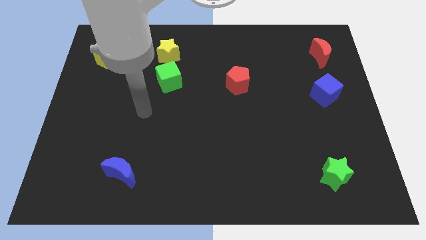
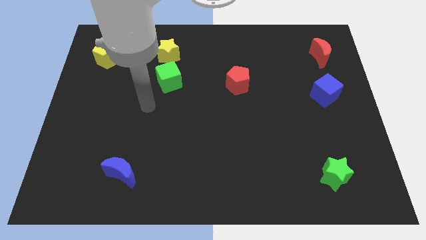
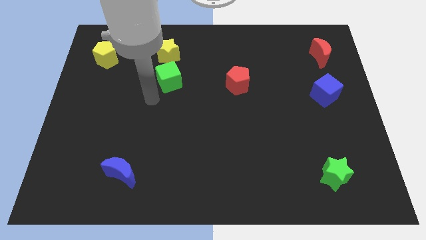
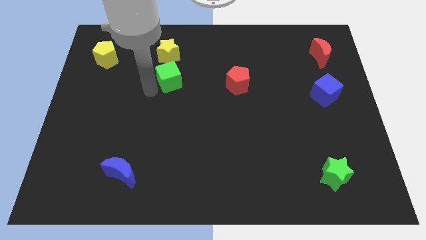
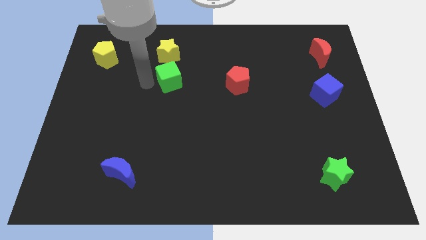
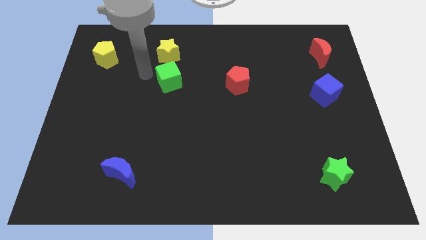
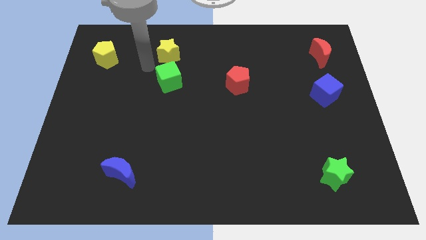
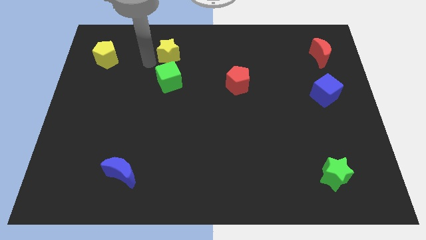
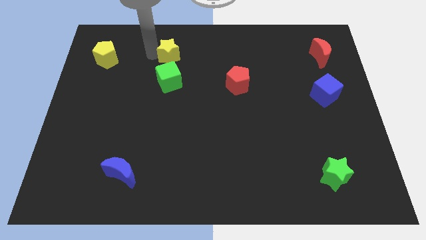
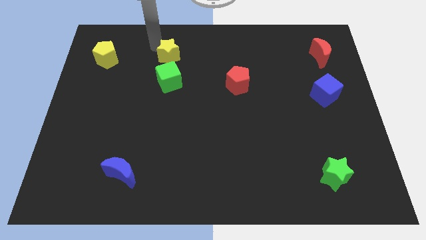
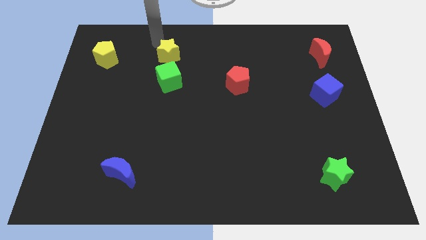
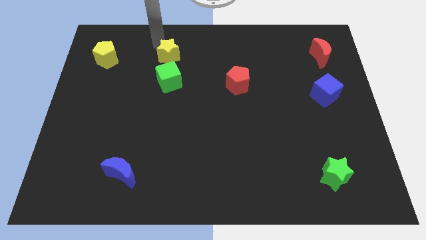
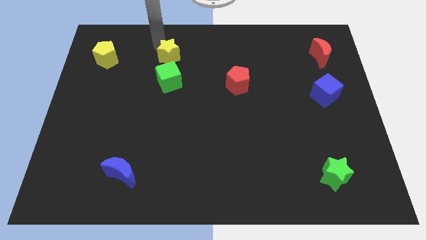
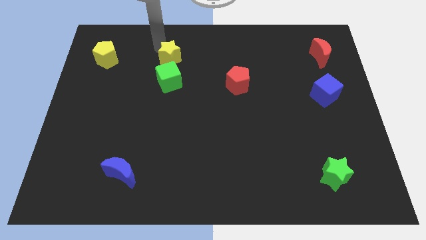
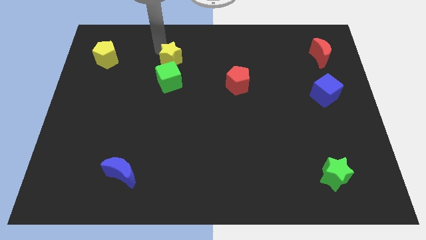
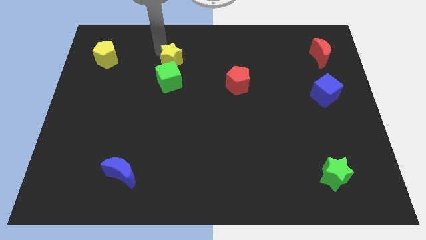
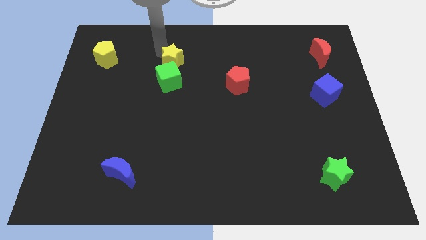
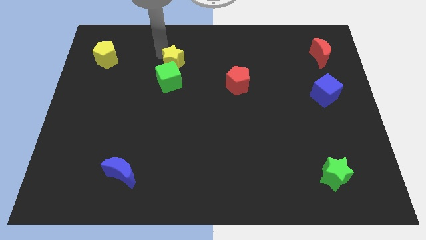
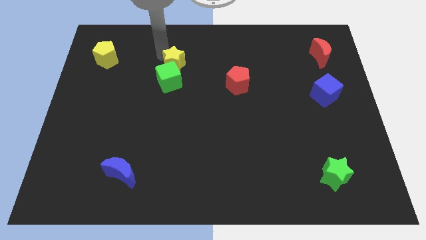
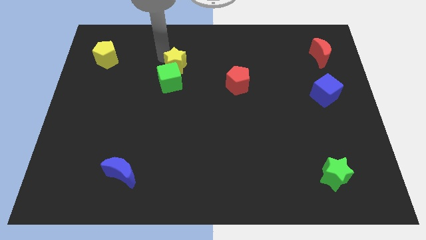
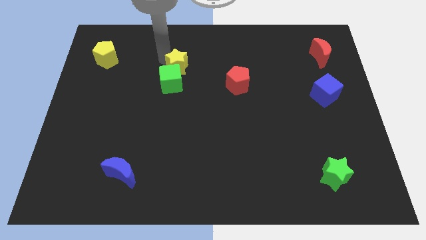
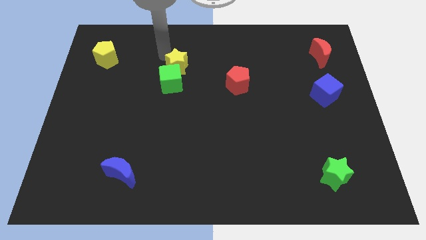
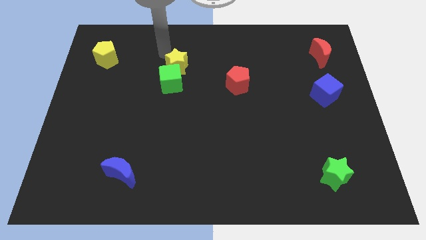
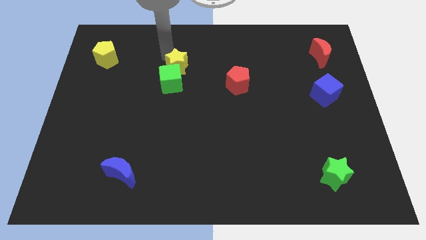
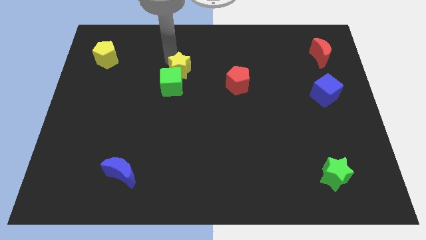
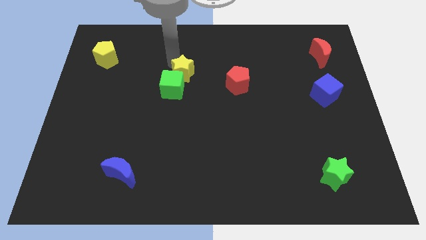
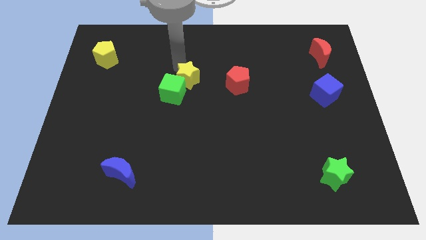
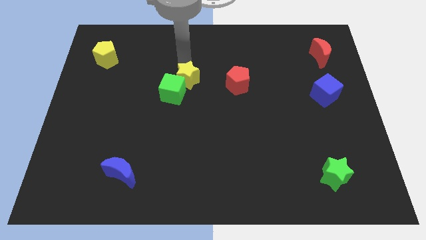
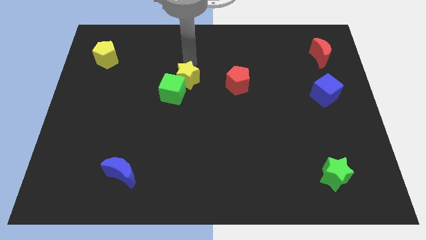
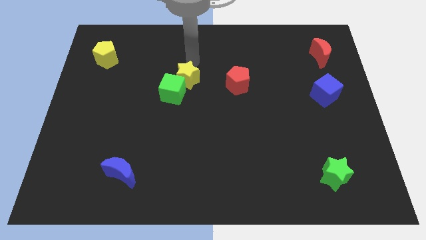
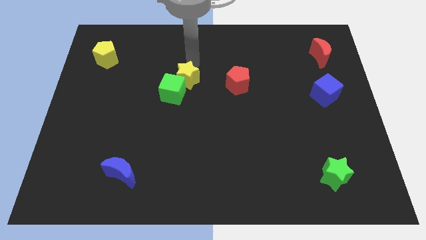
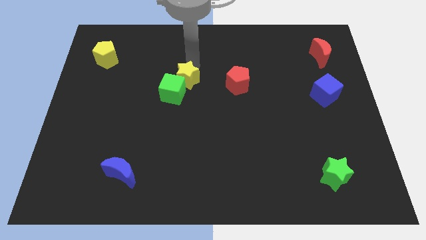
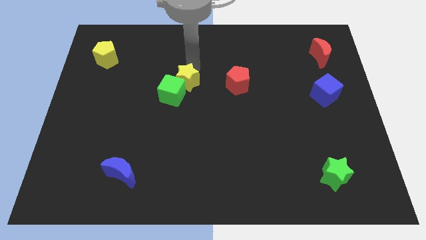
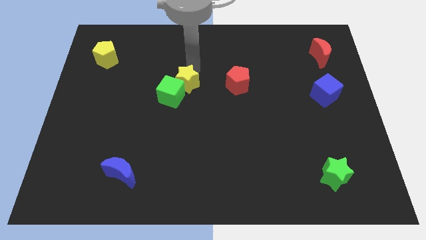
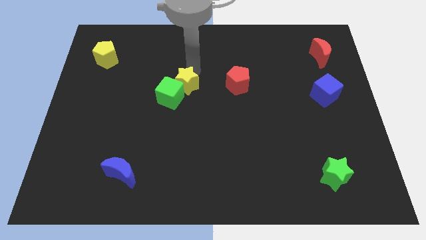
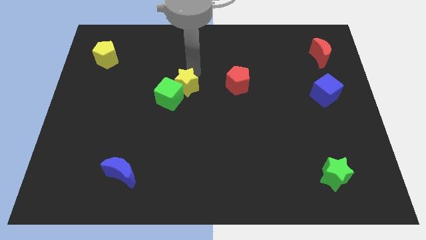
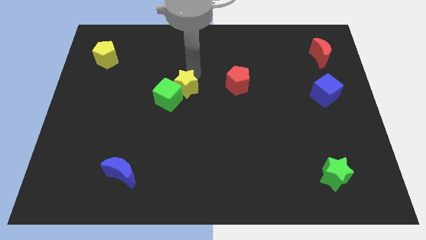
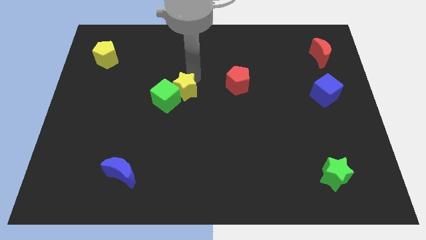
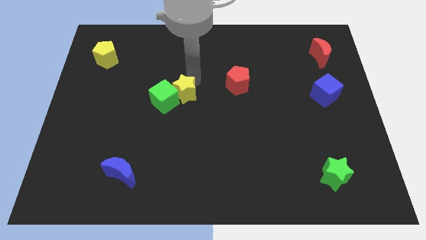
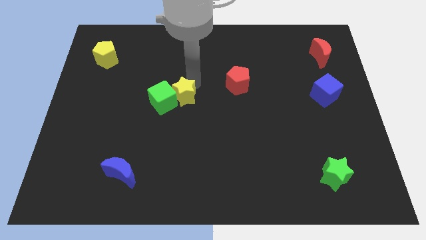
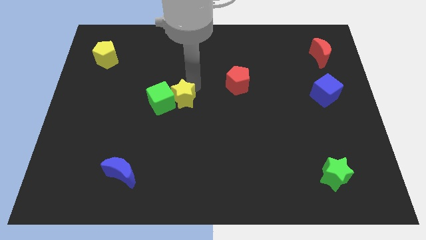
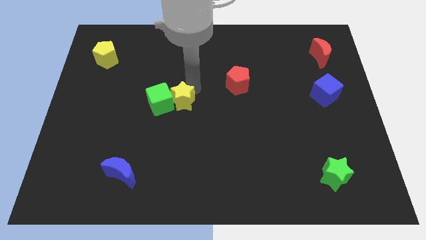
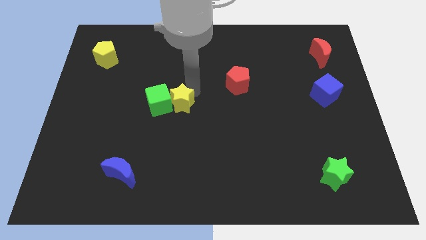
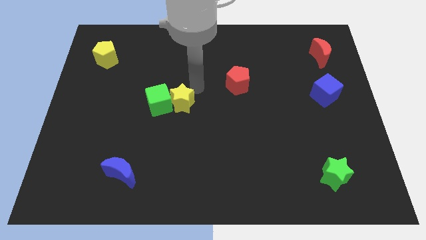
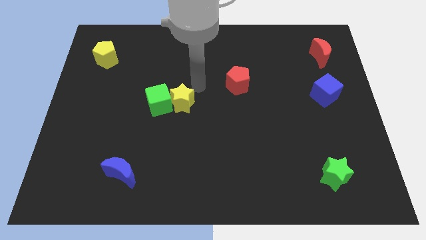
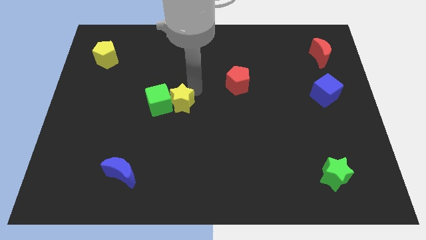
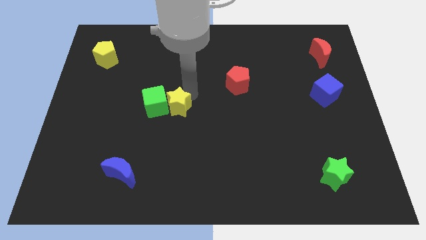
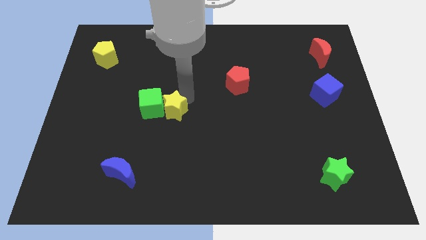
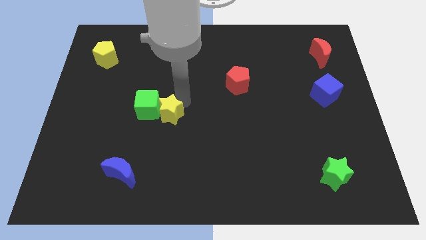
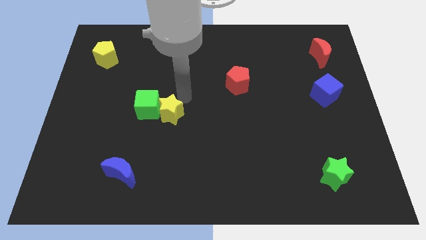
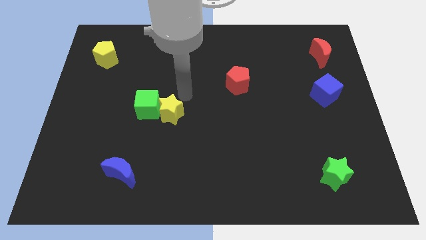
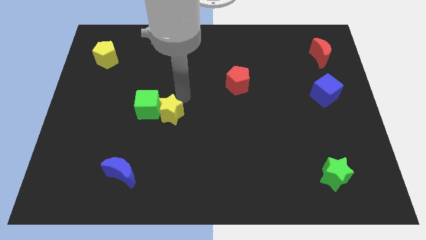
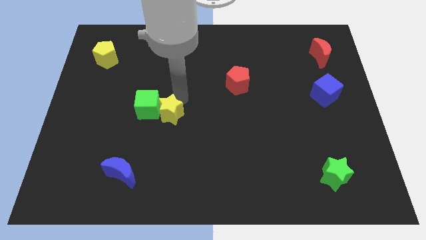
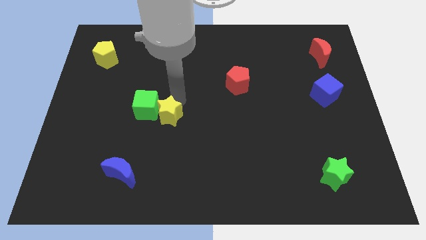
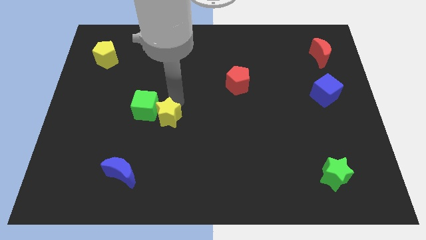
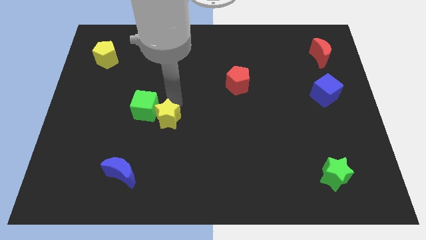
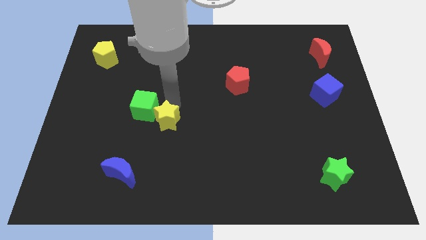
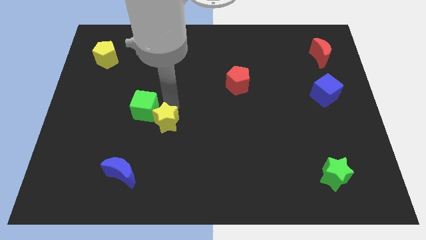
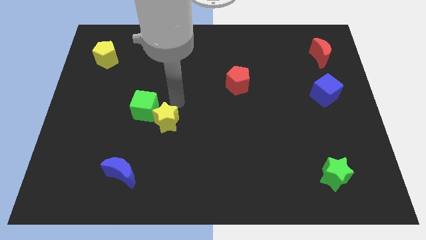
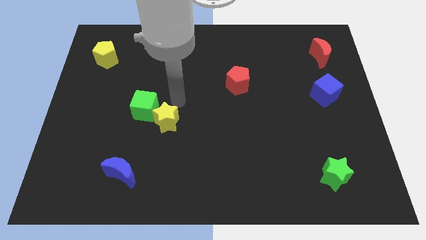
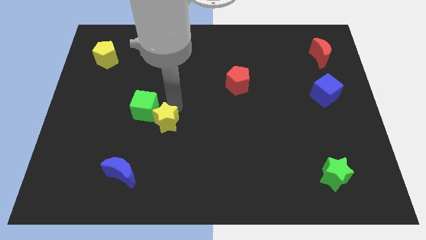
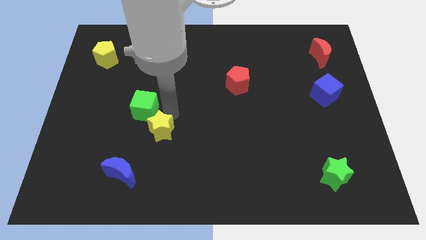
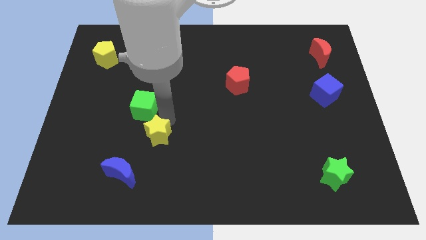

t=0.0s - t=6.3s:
put the yellow star to the top right of the blue moon

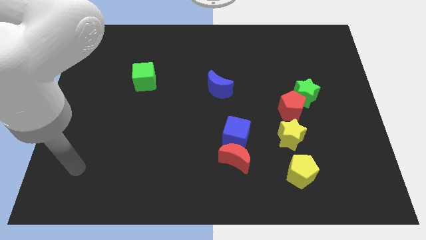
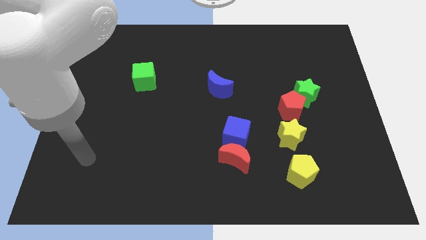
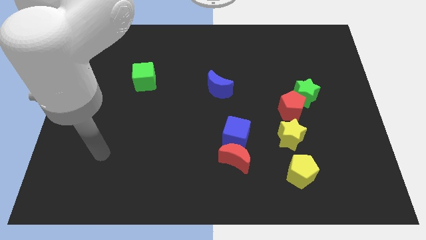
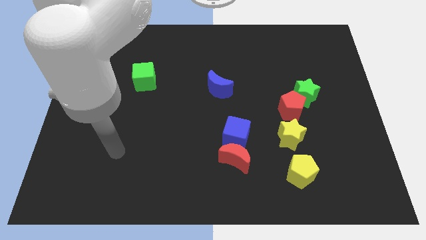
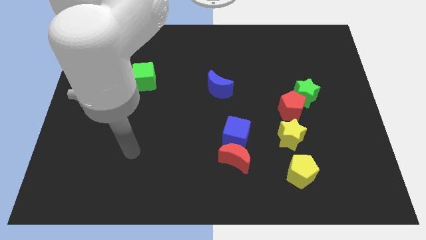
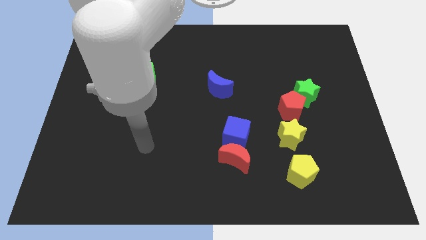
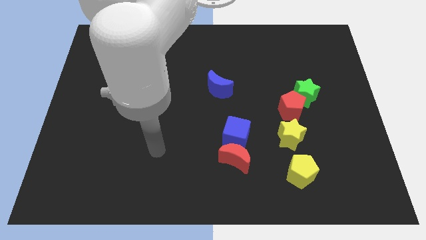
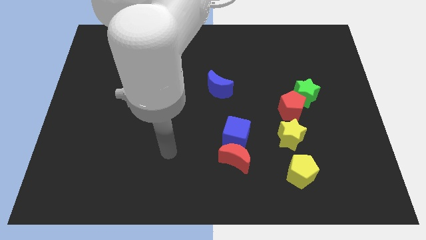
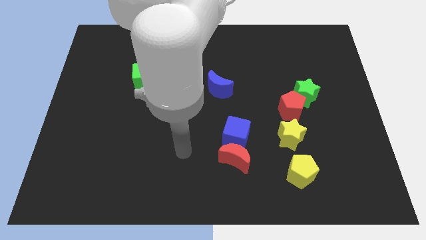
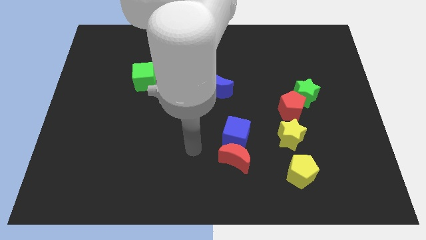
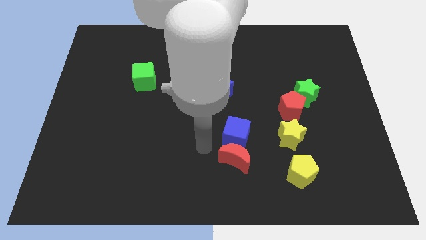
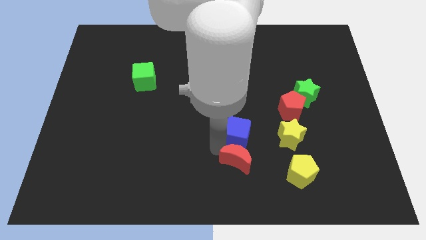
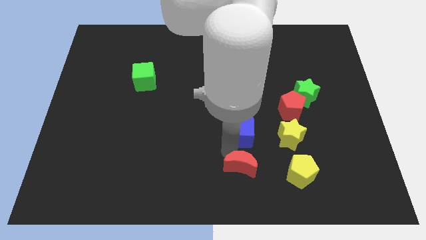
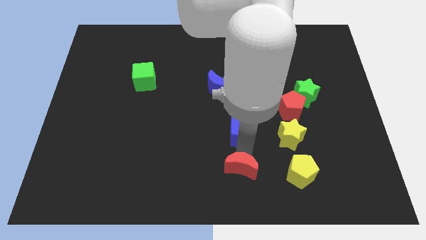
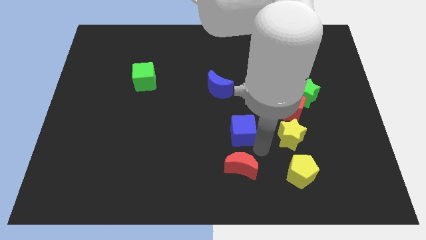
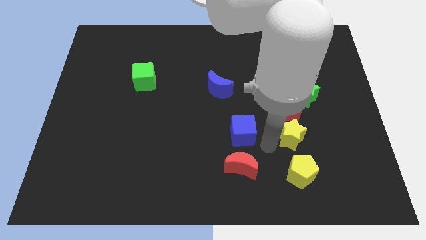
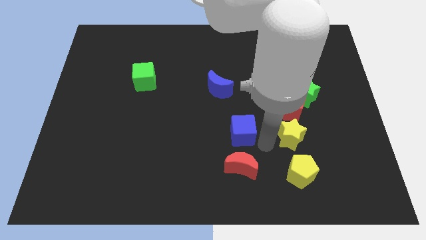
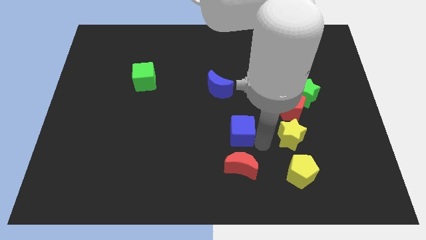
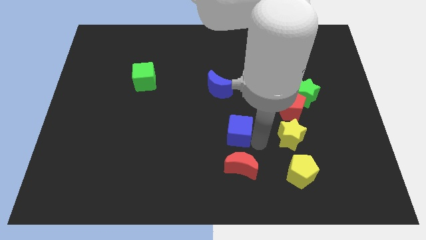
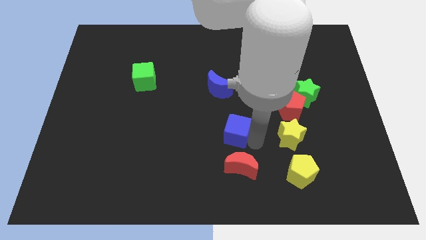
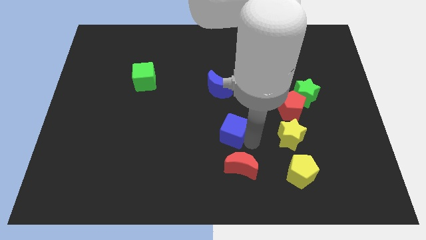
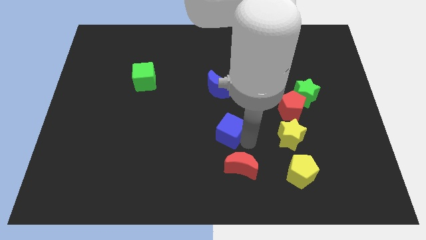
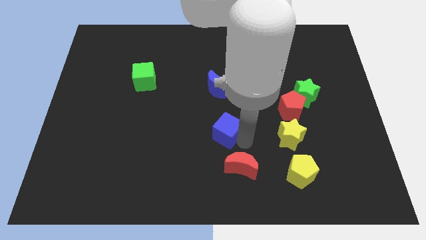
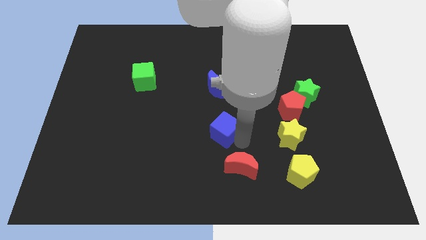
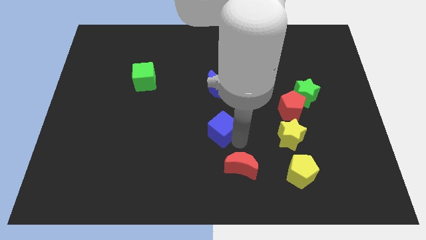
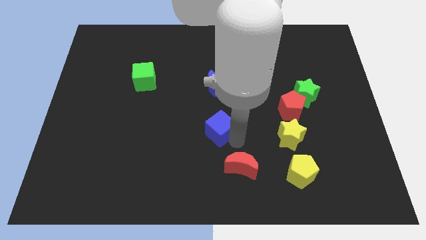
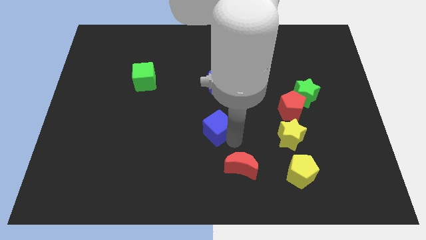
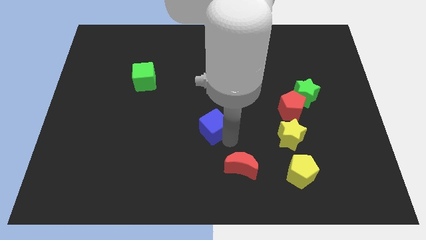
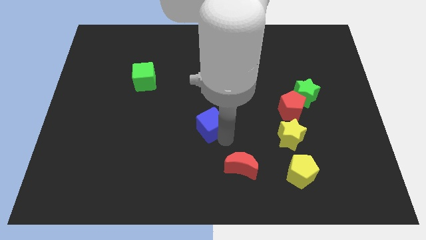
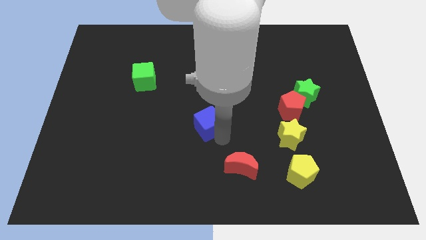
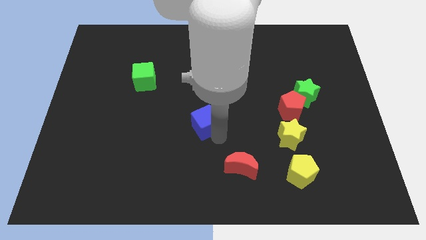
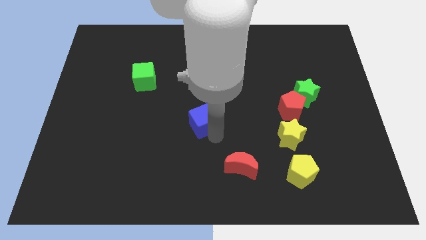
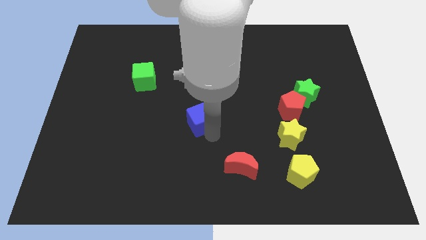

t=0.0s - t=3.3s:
put the blue cube to the bottom left of the blue moon
